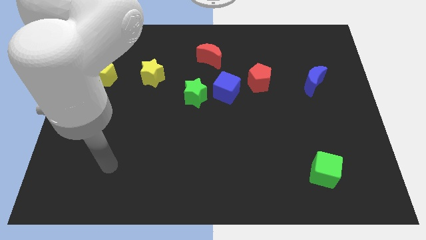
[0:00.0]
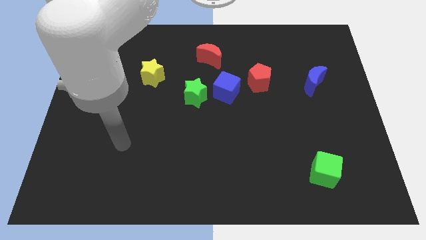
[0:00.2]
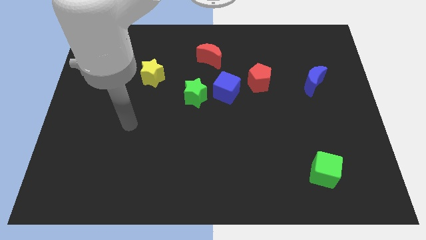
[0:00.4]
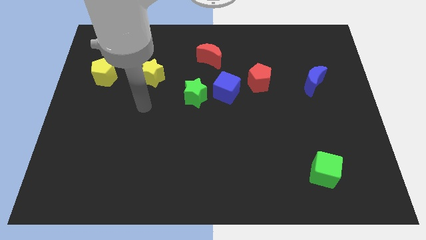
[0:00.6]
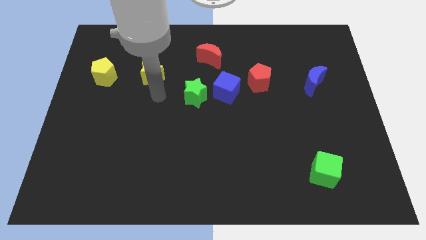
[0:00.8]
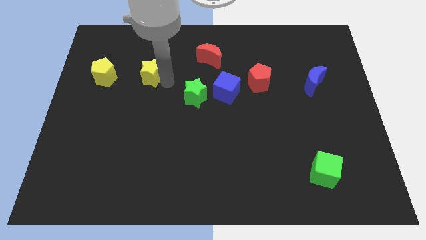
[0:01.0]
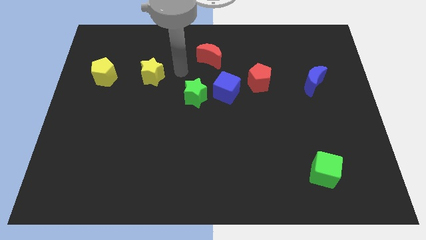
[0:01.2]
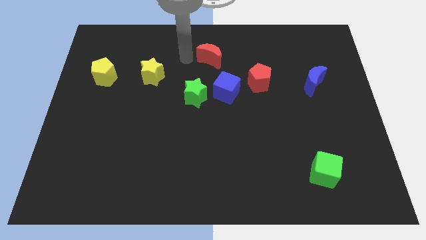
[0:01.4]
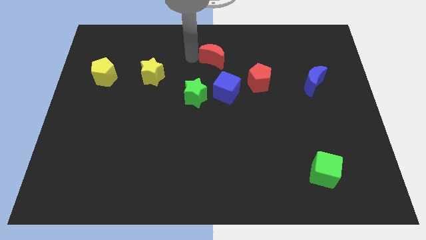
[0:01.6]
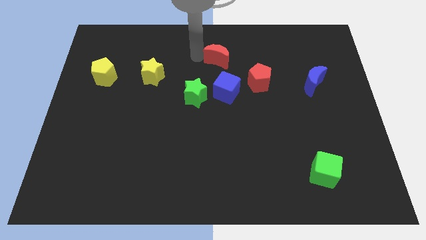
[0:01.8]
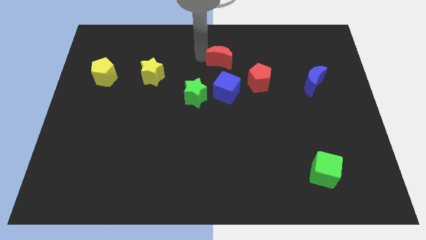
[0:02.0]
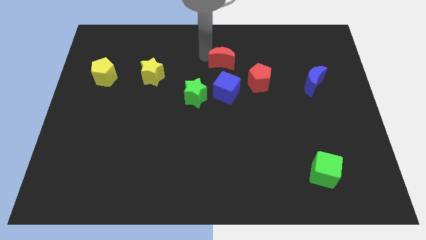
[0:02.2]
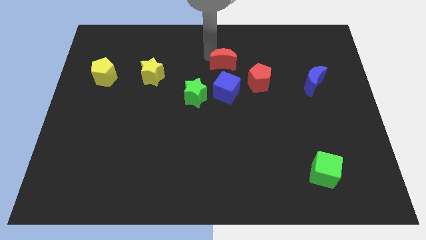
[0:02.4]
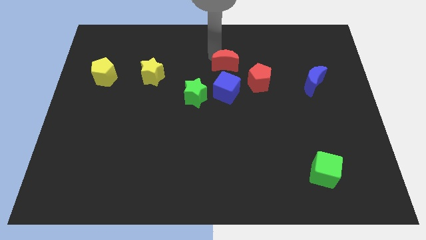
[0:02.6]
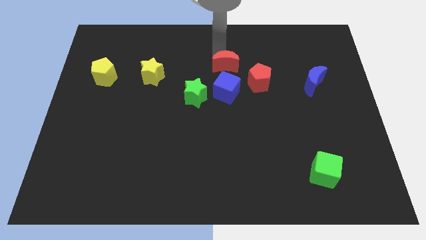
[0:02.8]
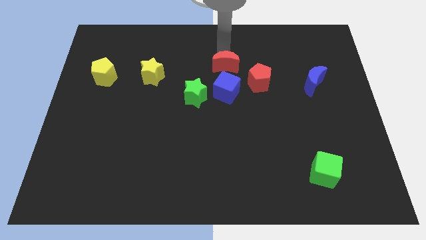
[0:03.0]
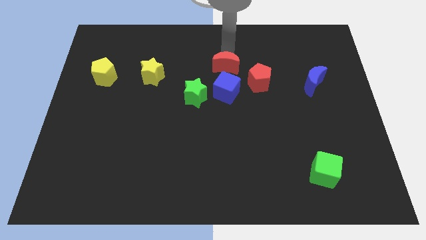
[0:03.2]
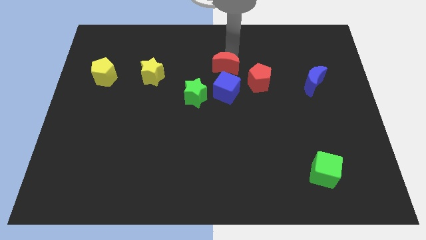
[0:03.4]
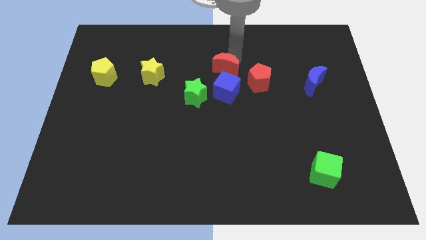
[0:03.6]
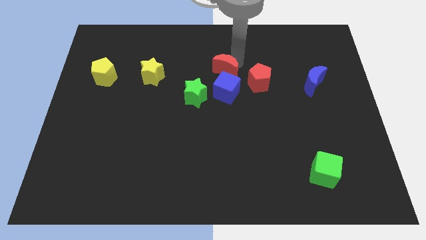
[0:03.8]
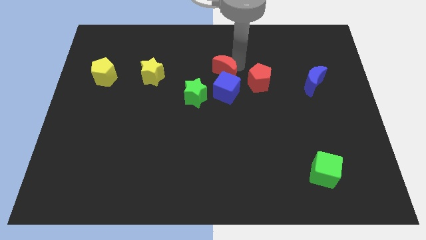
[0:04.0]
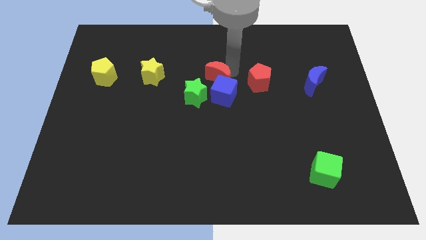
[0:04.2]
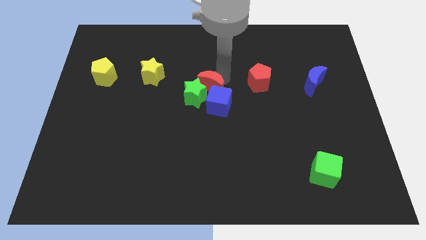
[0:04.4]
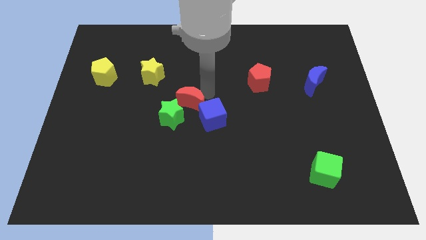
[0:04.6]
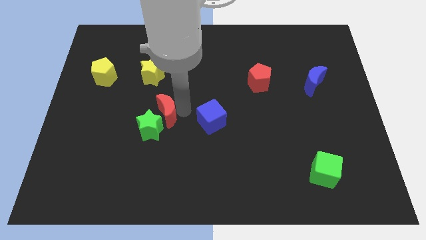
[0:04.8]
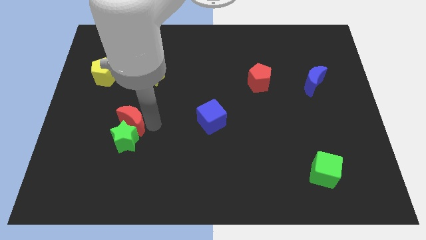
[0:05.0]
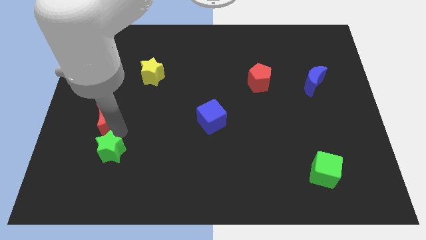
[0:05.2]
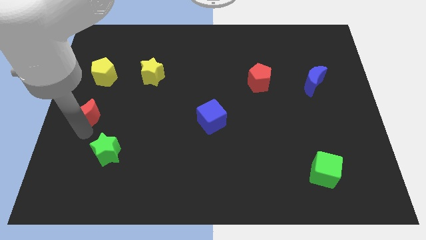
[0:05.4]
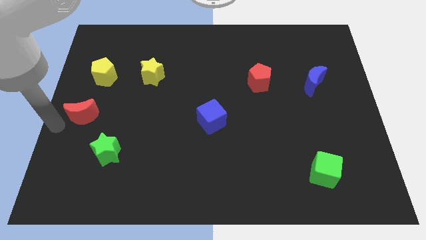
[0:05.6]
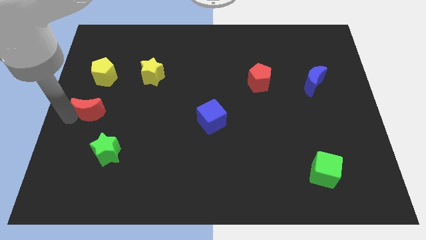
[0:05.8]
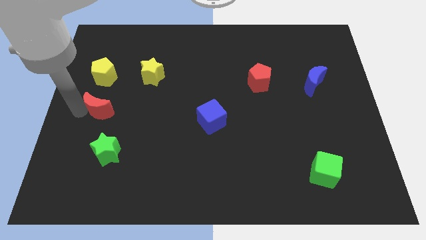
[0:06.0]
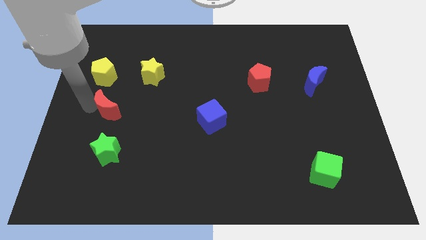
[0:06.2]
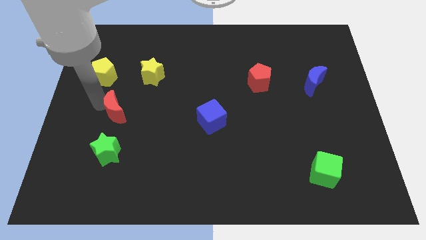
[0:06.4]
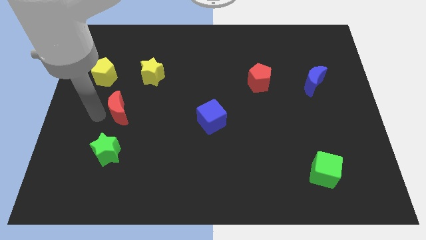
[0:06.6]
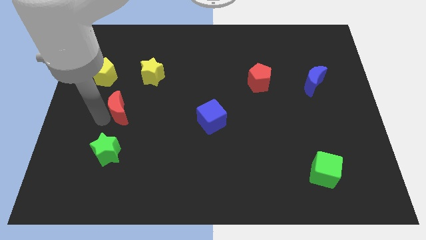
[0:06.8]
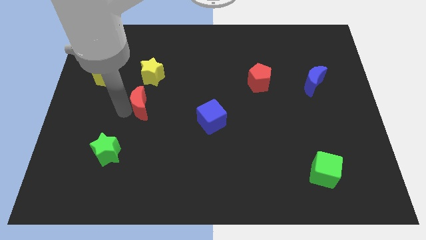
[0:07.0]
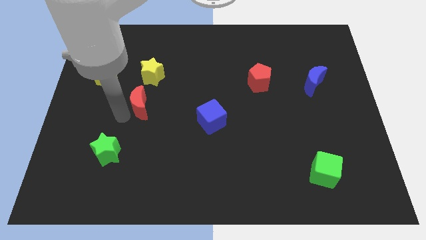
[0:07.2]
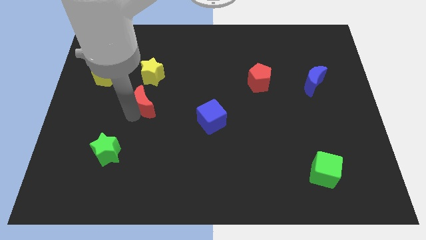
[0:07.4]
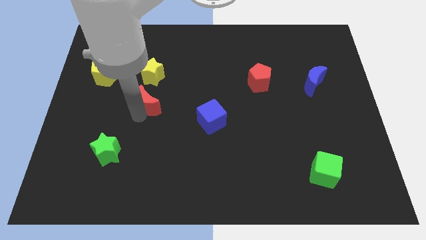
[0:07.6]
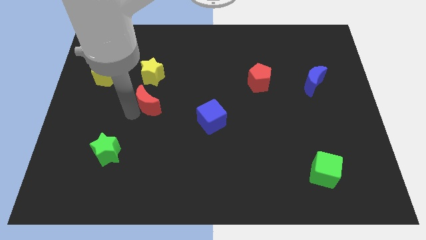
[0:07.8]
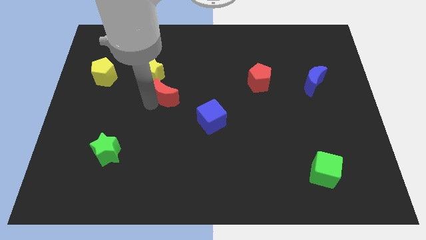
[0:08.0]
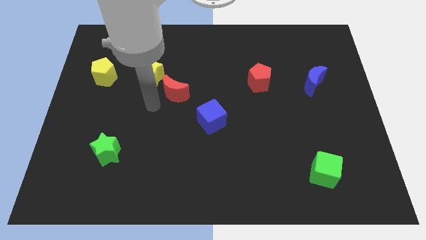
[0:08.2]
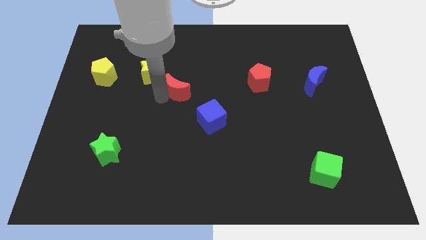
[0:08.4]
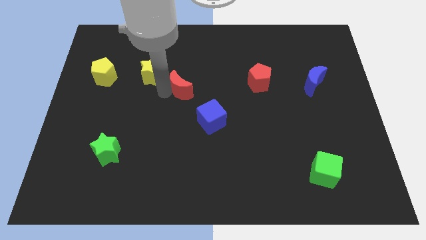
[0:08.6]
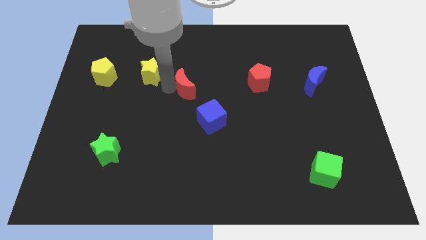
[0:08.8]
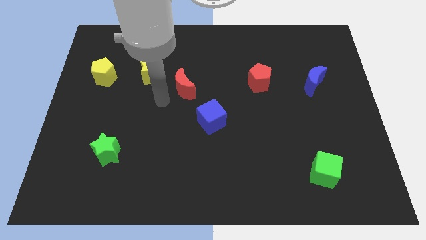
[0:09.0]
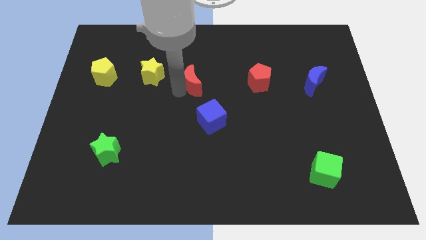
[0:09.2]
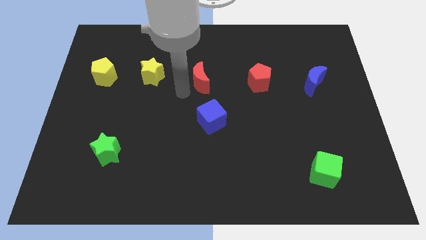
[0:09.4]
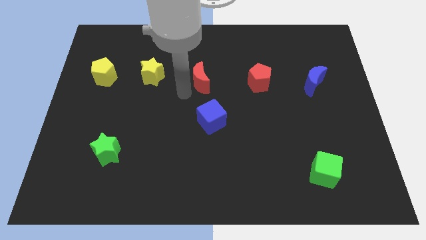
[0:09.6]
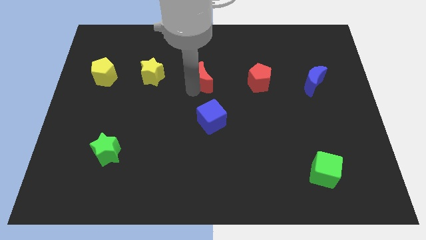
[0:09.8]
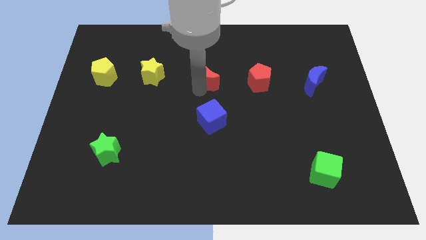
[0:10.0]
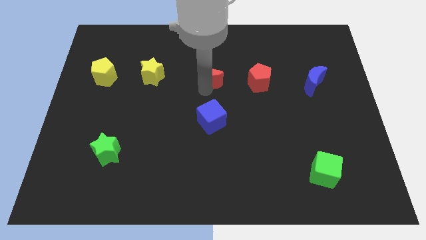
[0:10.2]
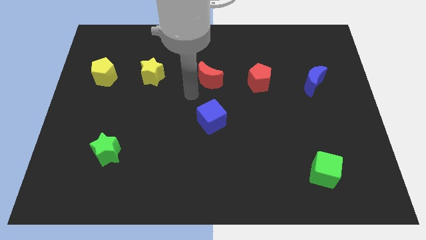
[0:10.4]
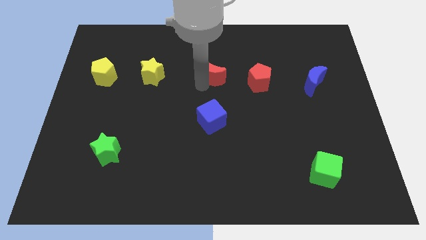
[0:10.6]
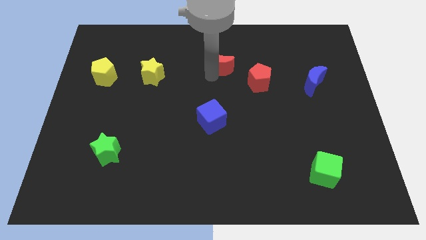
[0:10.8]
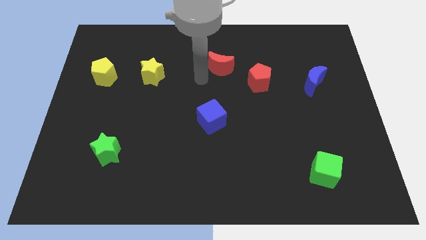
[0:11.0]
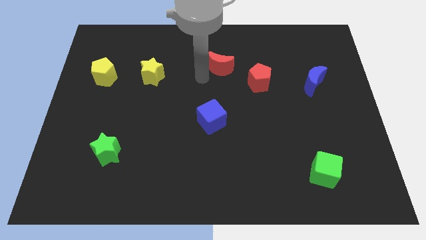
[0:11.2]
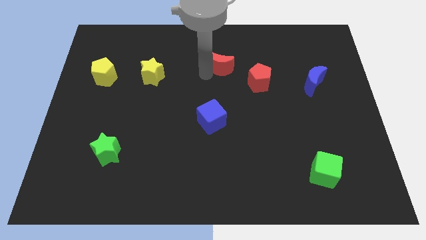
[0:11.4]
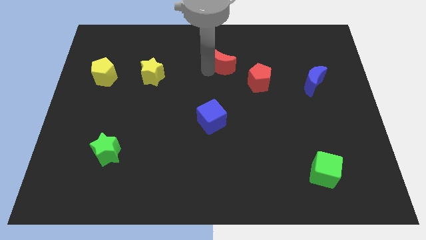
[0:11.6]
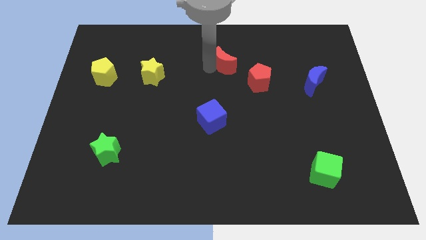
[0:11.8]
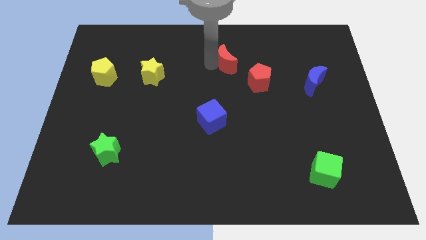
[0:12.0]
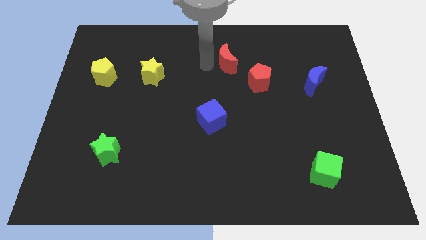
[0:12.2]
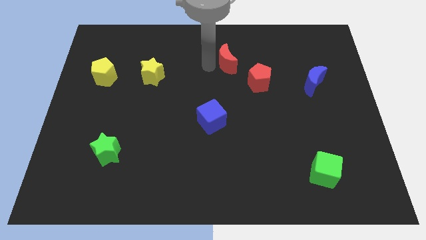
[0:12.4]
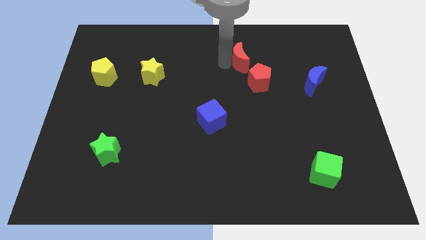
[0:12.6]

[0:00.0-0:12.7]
slightly slide the red moon right

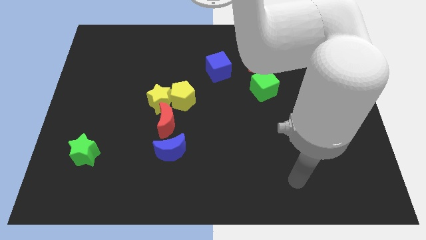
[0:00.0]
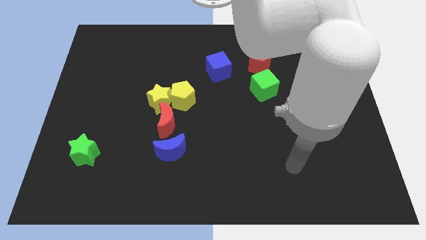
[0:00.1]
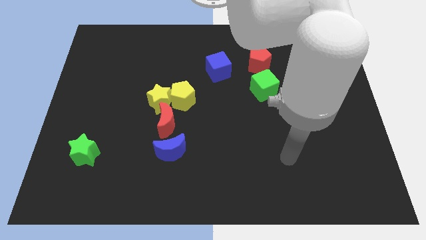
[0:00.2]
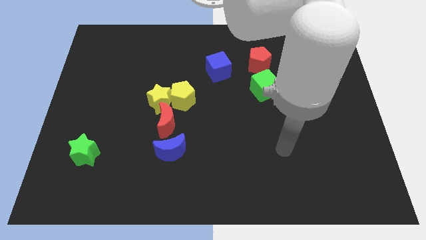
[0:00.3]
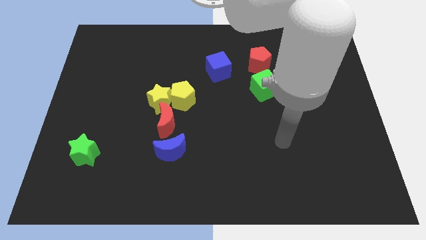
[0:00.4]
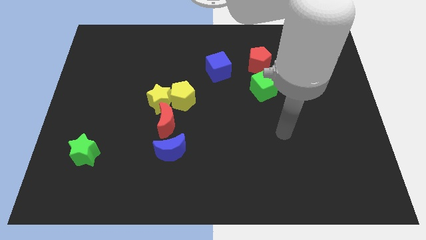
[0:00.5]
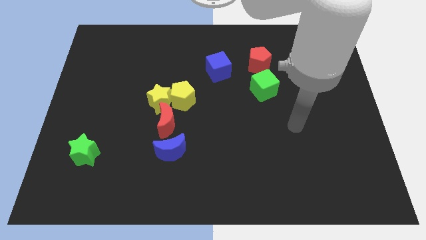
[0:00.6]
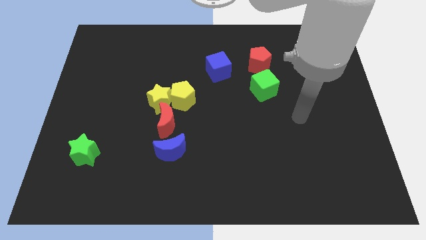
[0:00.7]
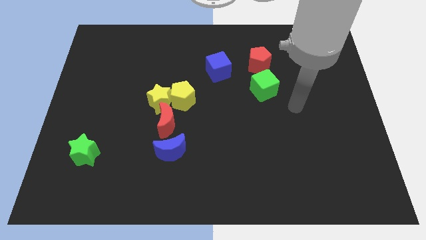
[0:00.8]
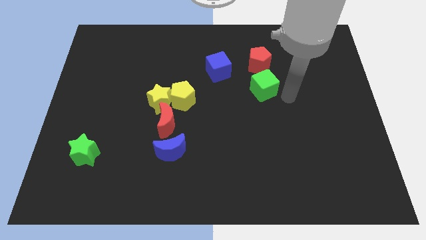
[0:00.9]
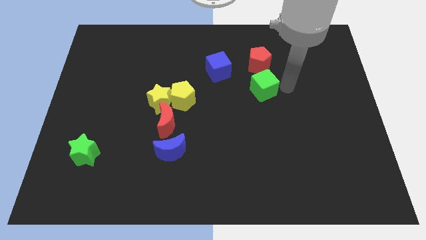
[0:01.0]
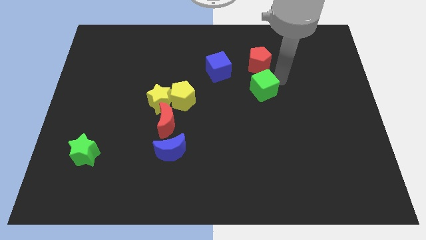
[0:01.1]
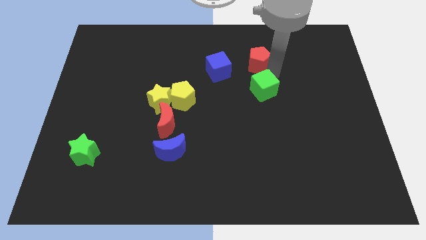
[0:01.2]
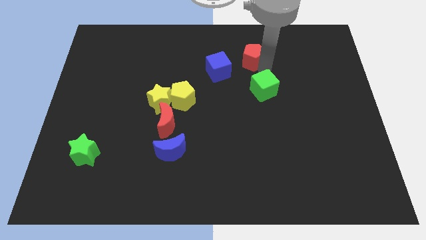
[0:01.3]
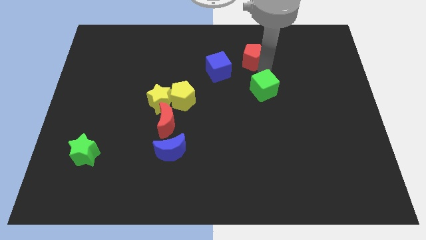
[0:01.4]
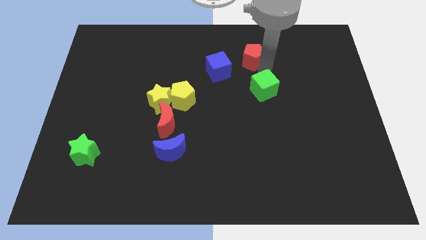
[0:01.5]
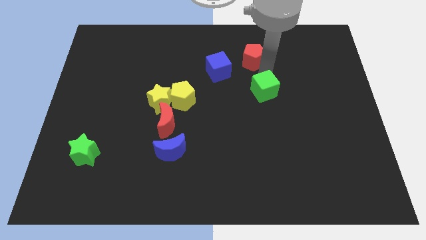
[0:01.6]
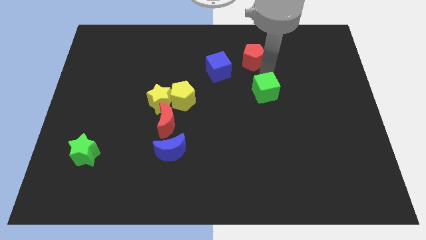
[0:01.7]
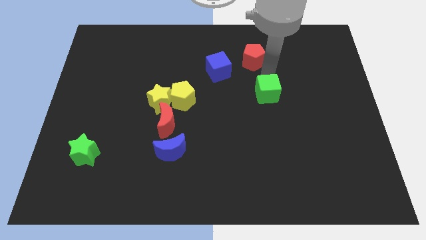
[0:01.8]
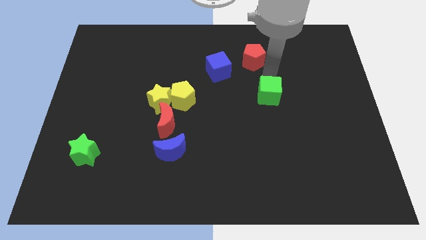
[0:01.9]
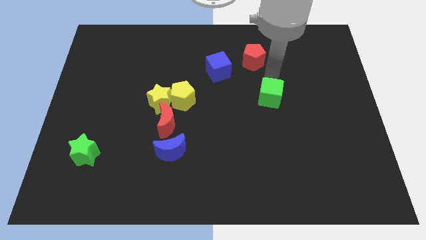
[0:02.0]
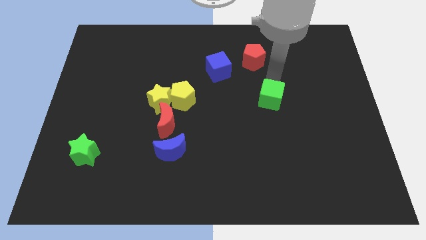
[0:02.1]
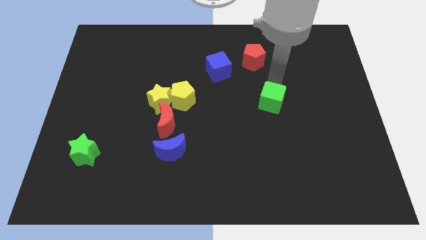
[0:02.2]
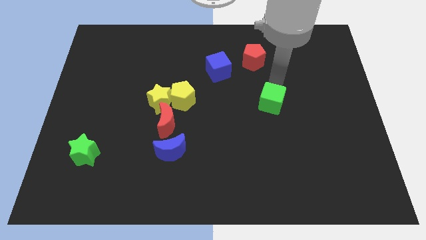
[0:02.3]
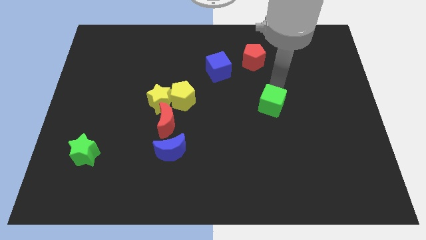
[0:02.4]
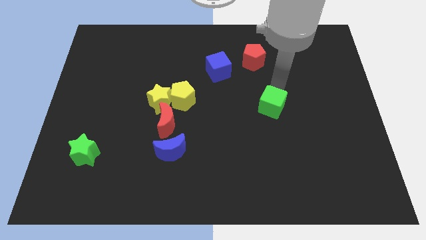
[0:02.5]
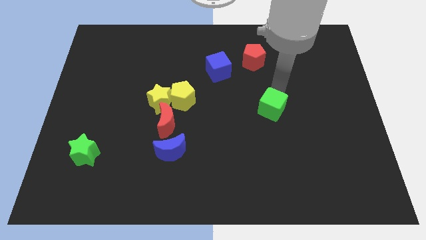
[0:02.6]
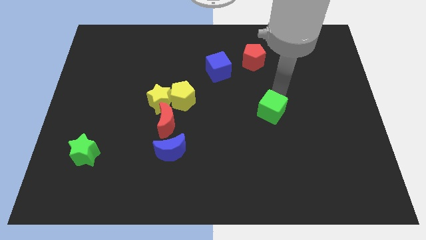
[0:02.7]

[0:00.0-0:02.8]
slightly move the green cube downwards
